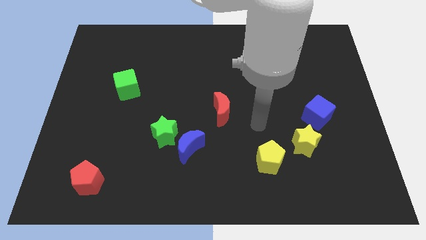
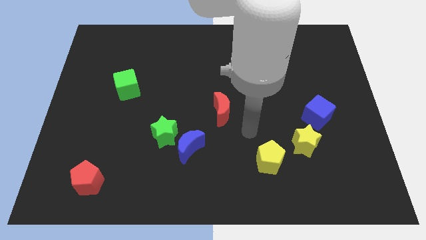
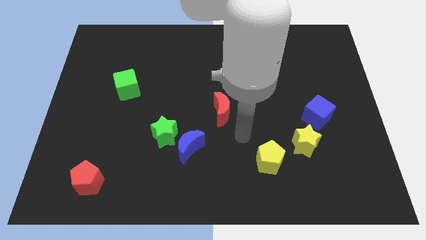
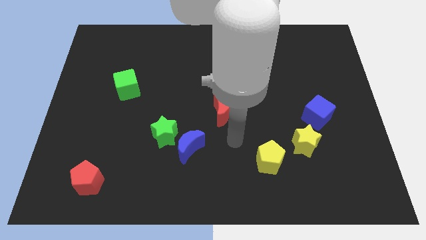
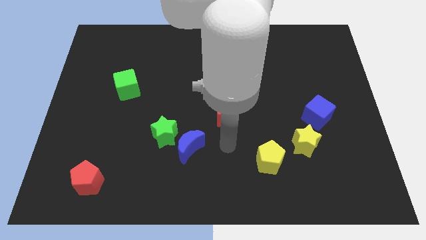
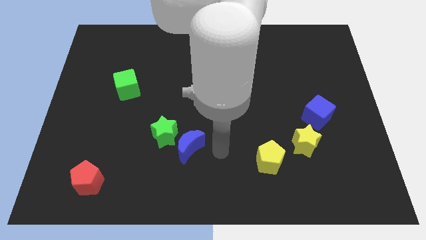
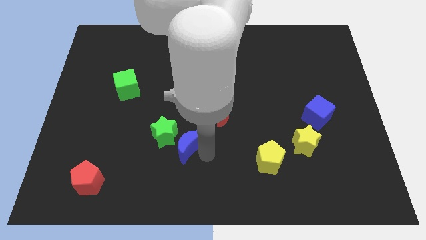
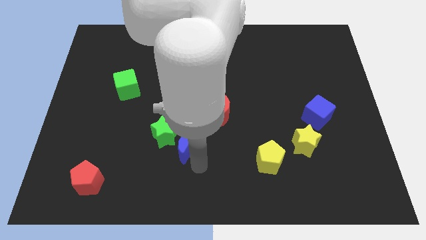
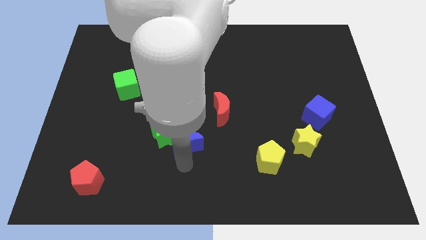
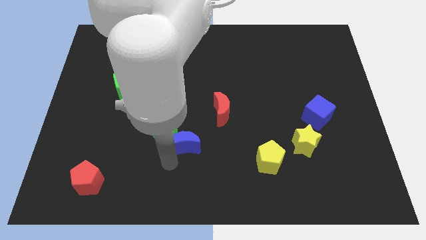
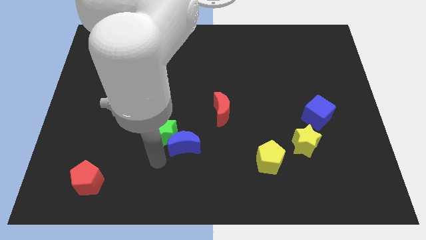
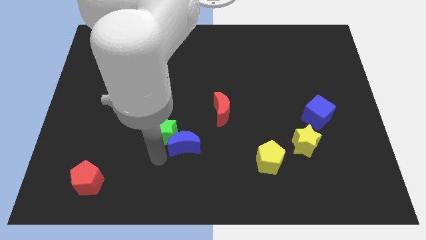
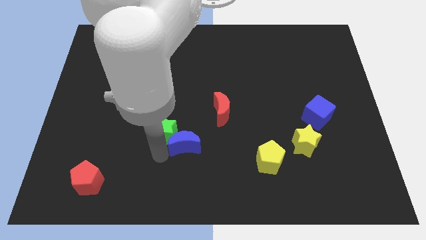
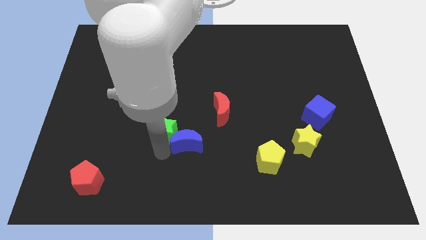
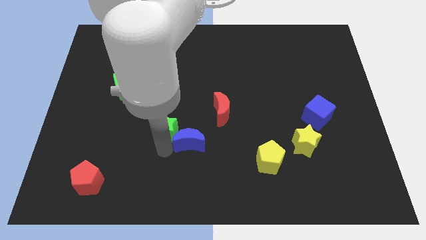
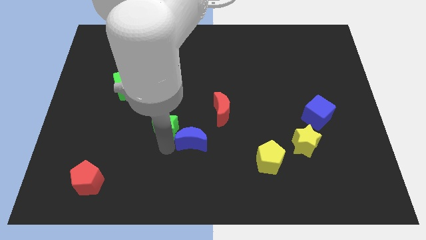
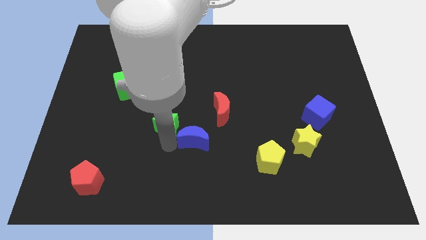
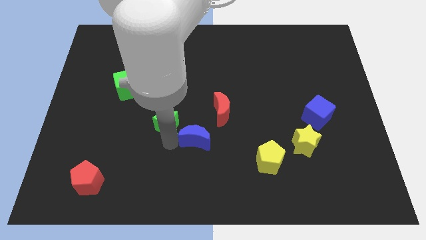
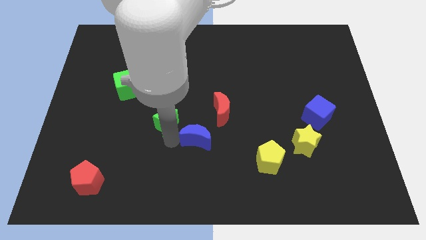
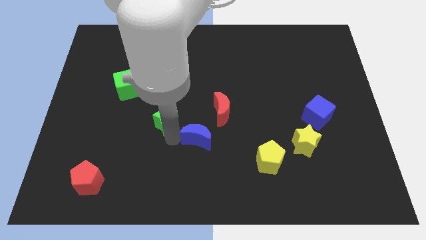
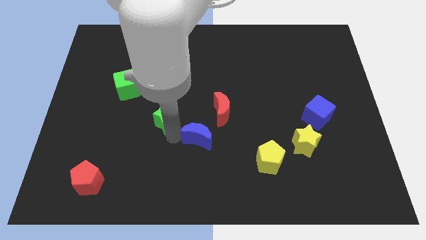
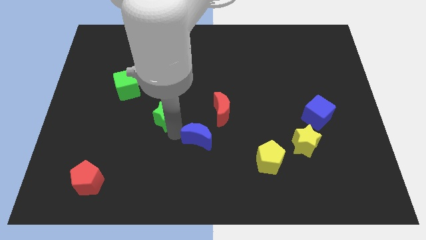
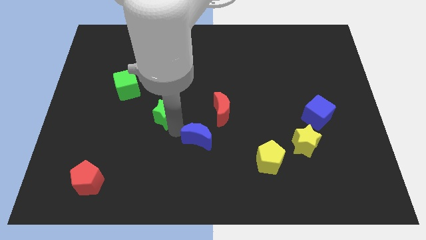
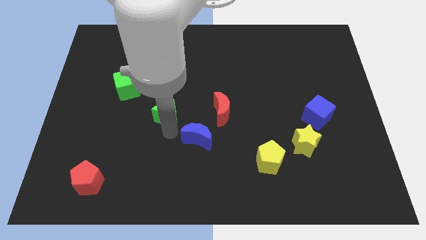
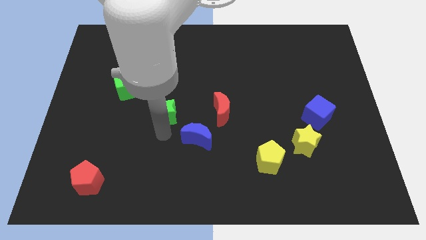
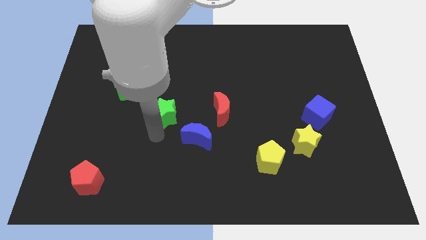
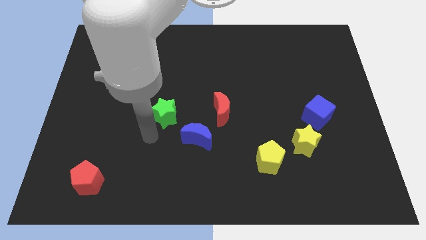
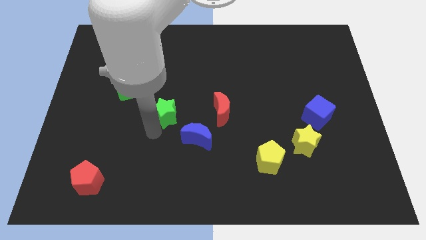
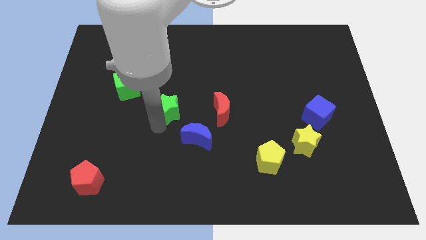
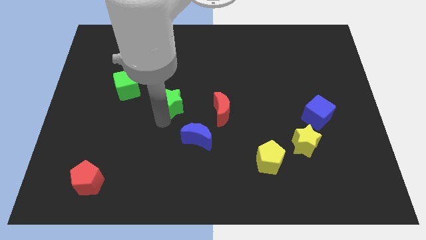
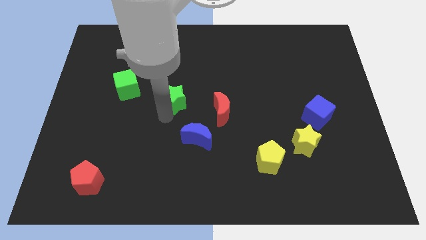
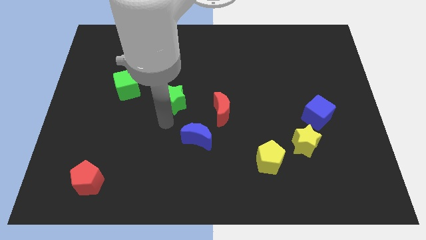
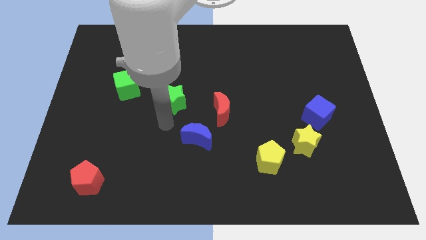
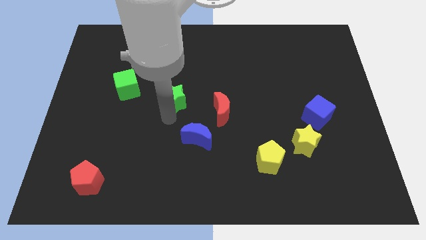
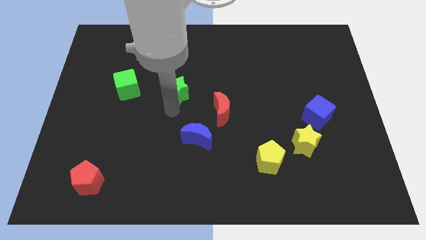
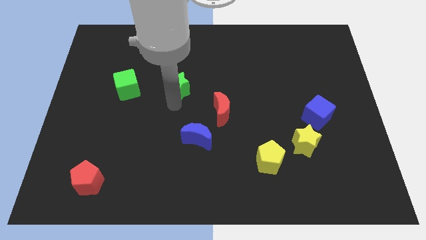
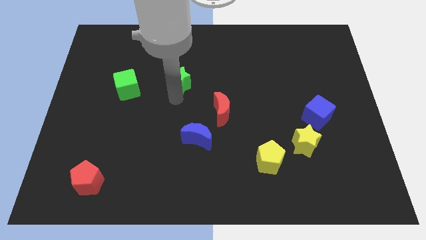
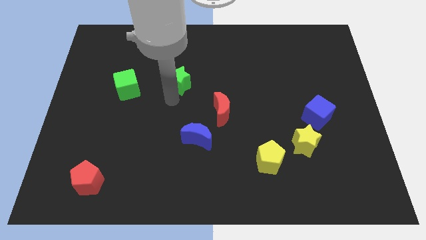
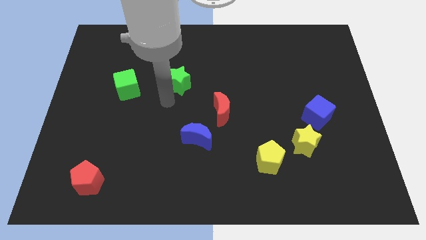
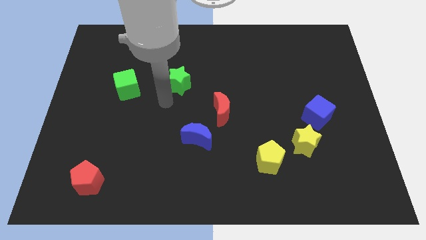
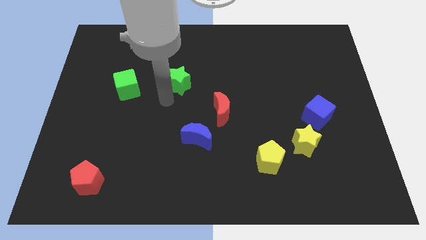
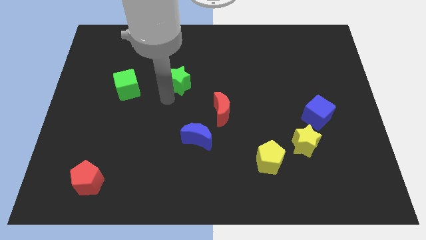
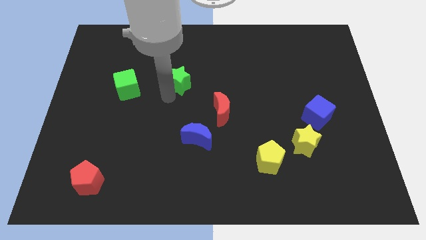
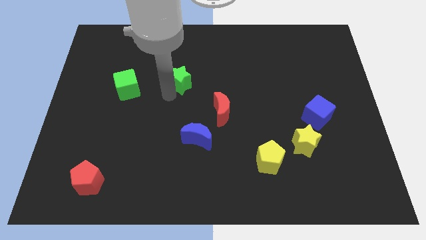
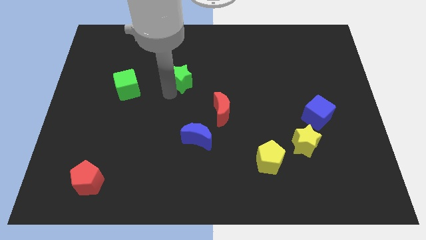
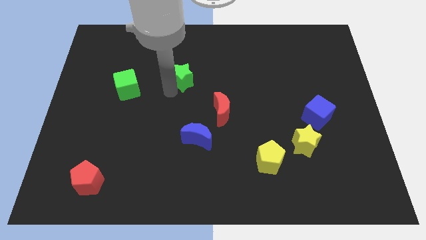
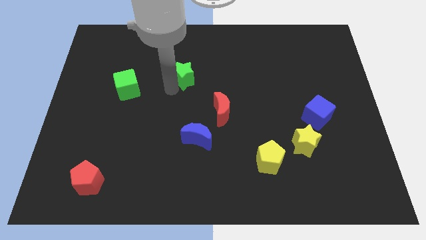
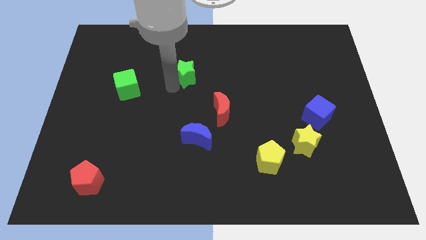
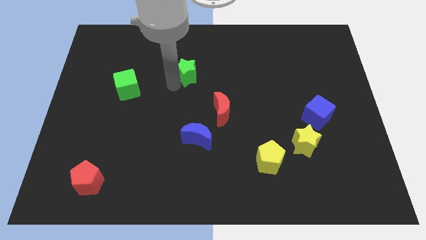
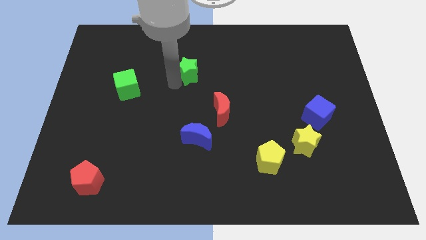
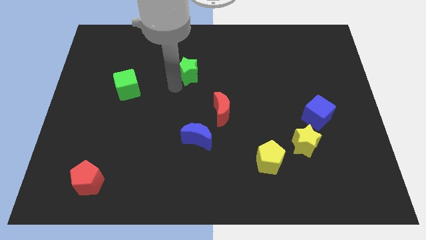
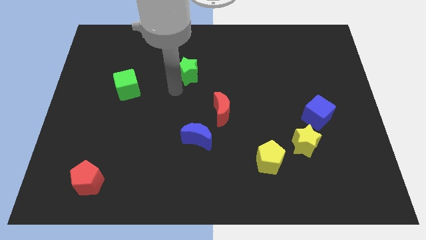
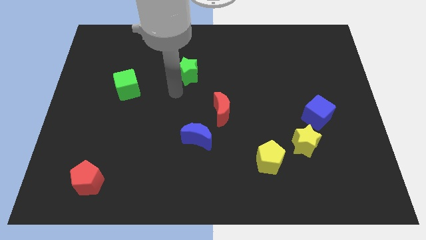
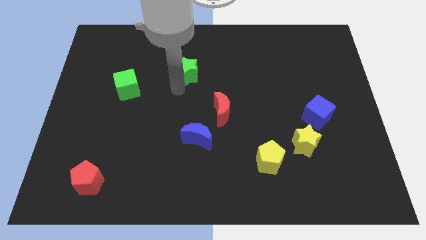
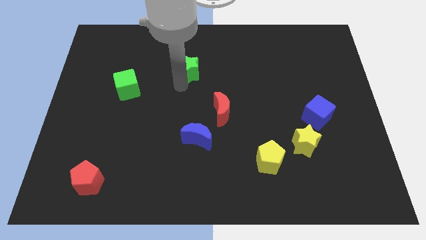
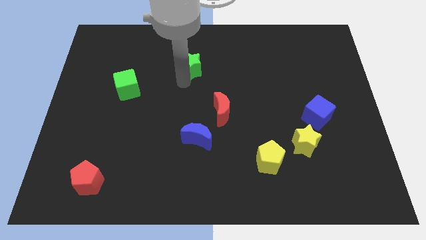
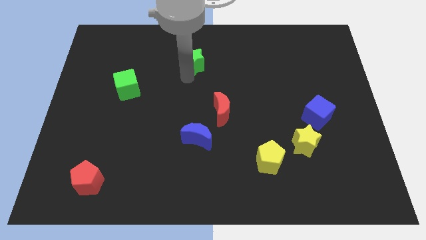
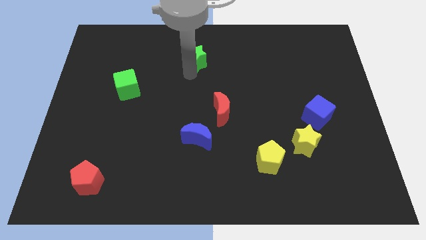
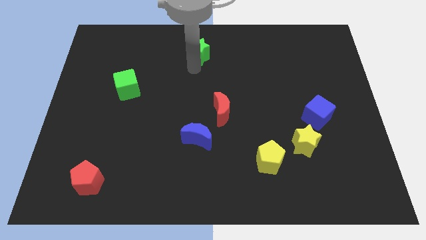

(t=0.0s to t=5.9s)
put the green star to the top side

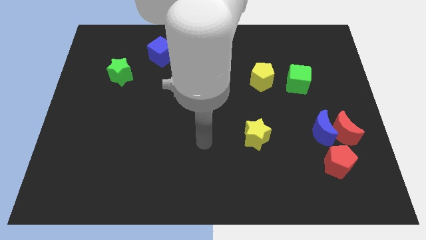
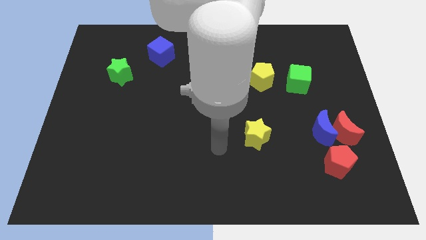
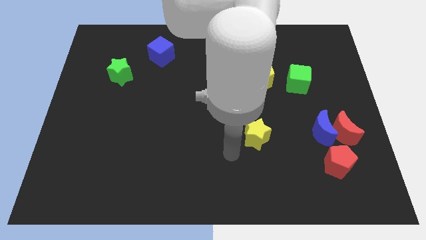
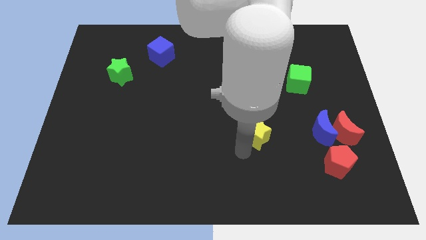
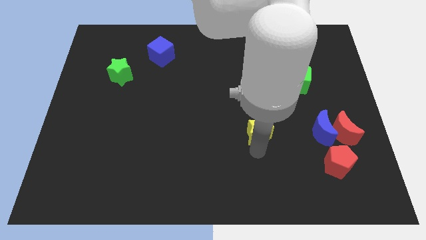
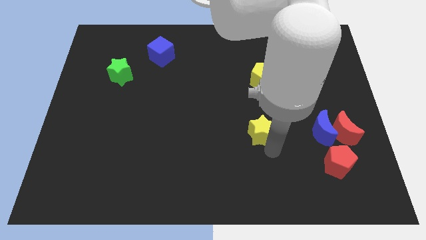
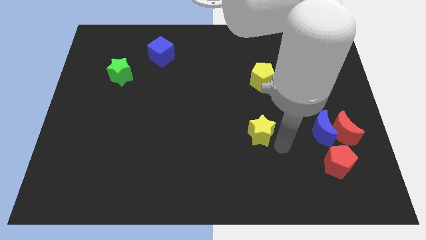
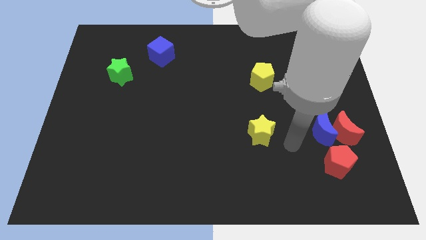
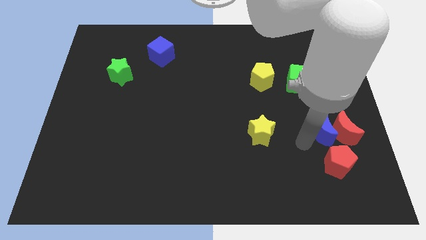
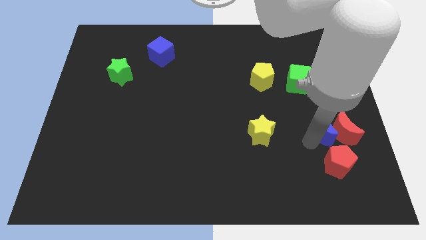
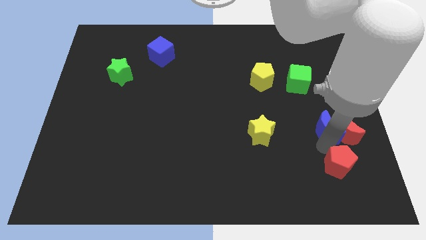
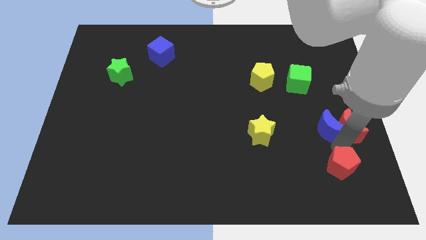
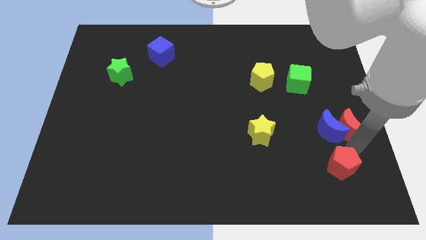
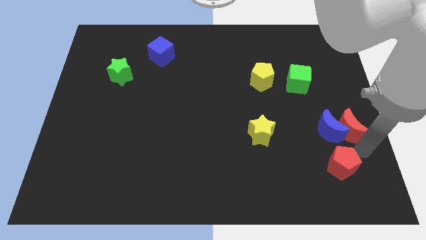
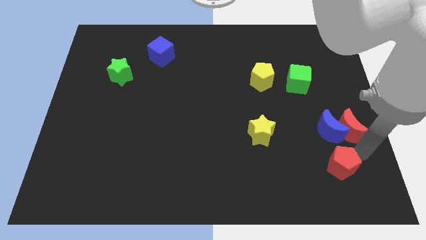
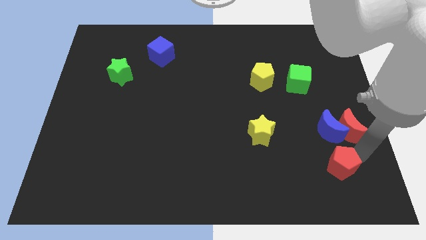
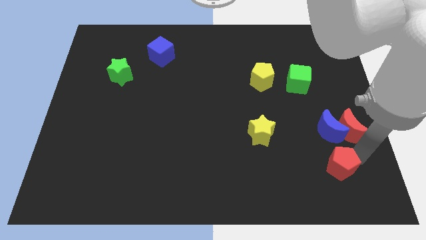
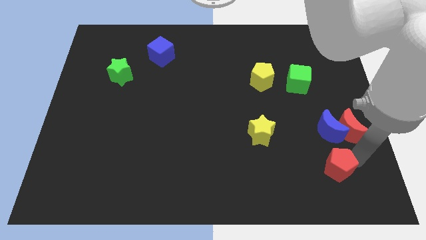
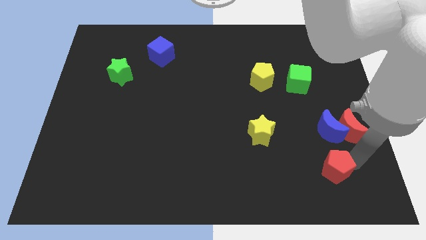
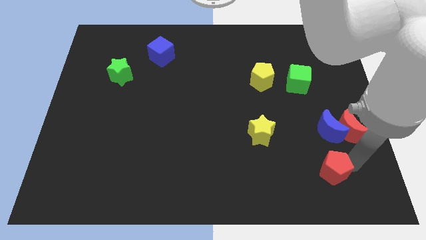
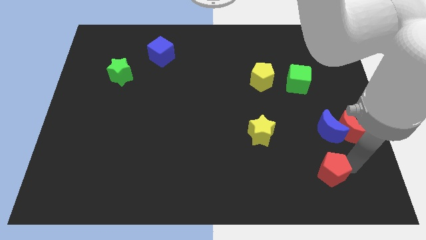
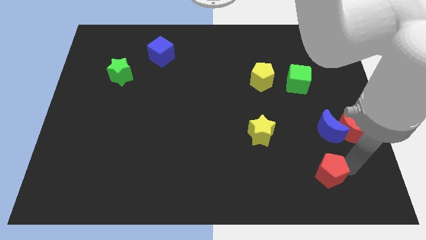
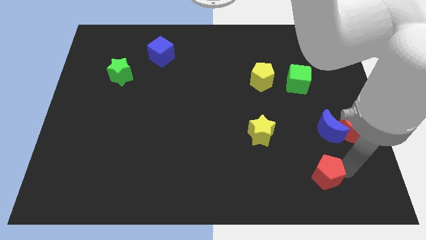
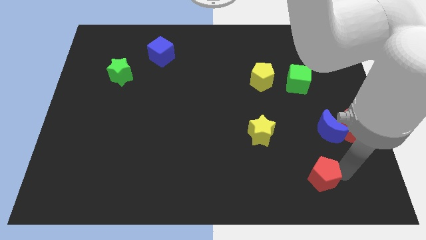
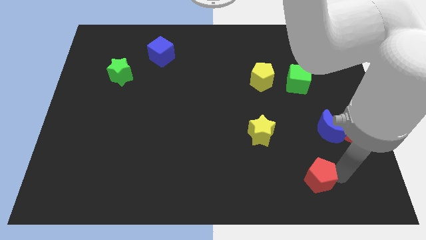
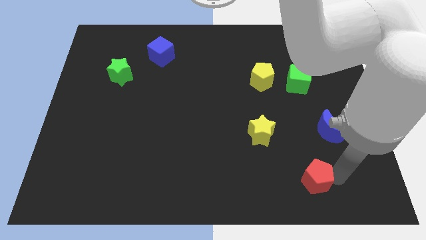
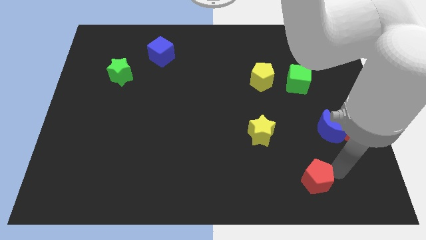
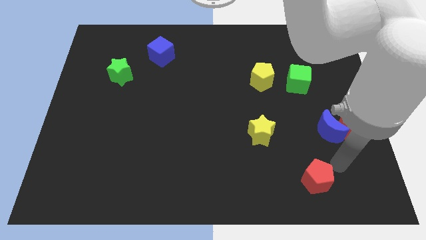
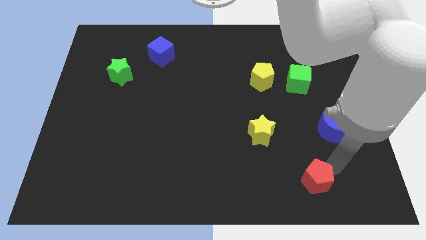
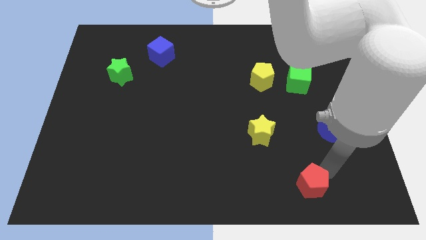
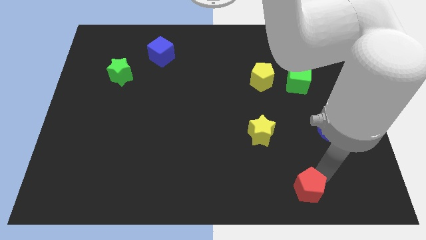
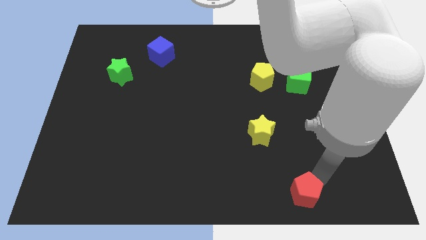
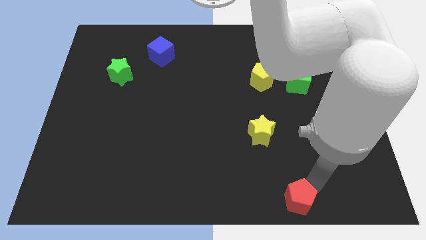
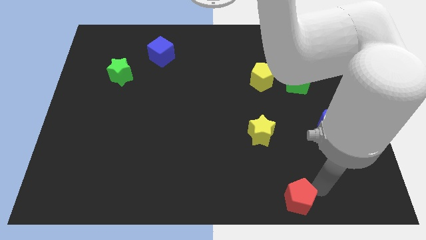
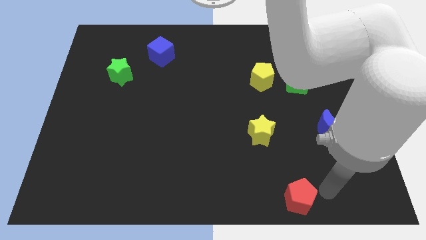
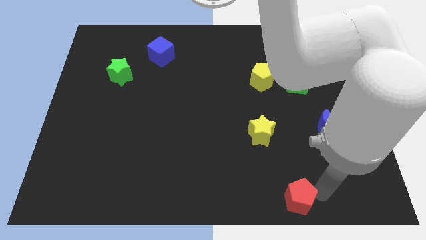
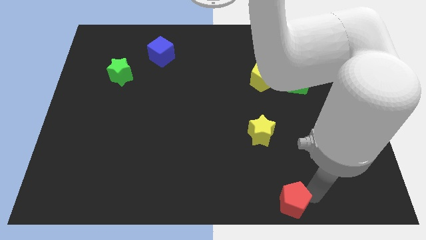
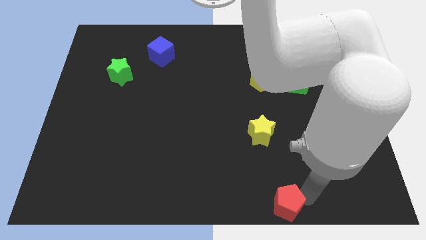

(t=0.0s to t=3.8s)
put the red pentagon to the bottom
